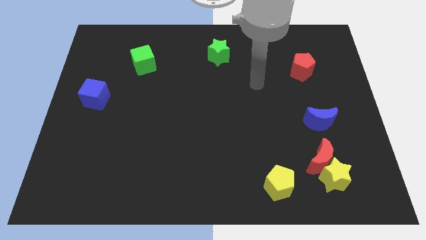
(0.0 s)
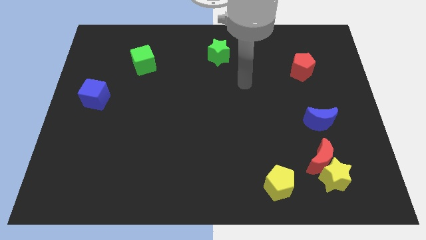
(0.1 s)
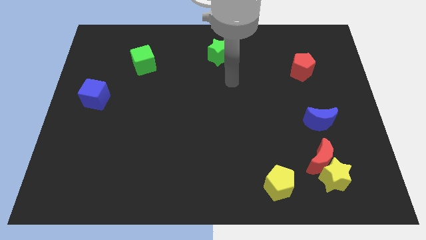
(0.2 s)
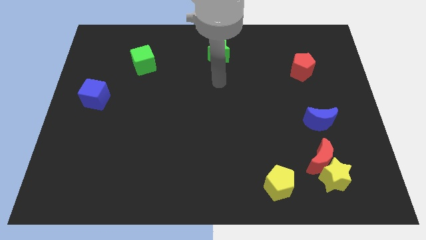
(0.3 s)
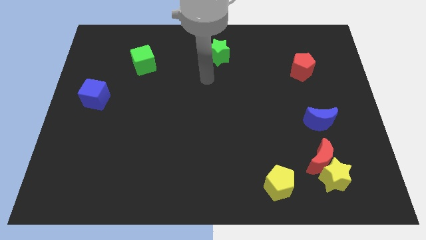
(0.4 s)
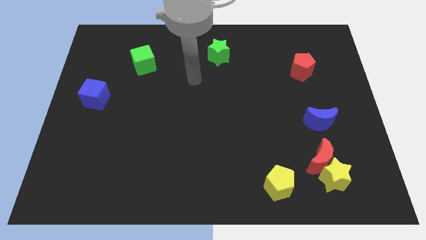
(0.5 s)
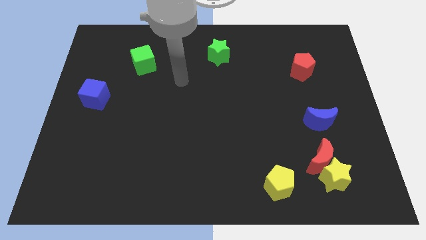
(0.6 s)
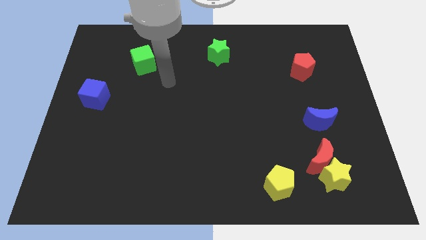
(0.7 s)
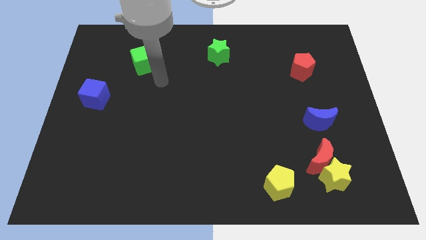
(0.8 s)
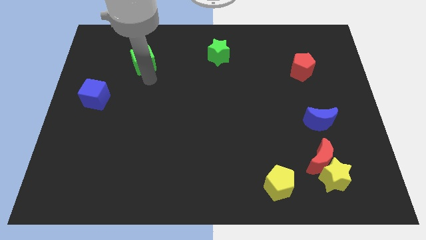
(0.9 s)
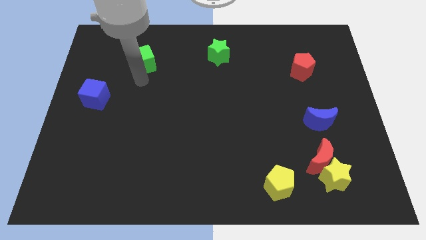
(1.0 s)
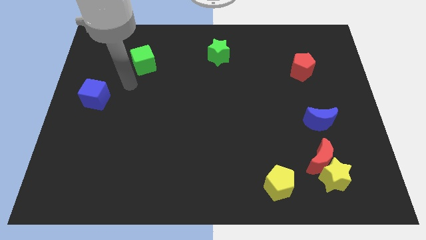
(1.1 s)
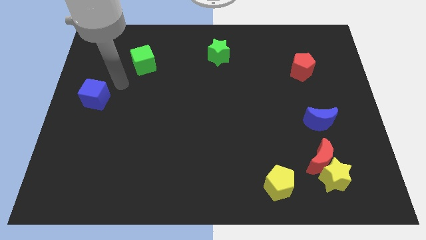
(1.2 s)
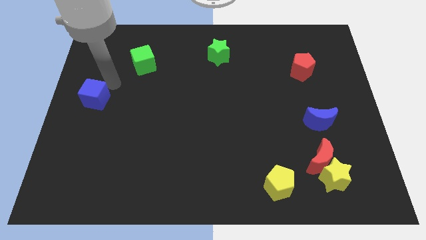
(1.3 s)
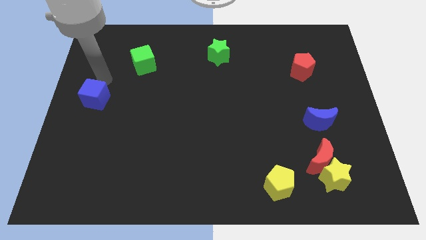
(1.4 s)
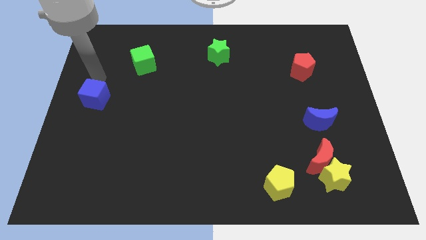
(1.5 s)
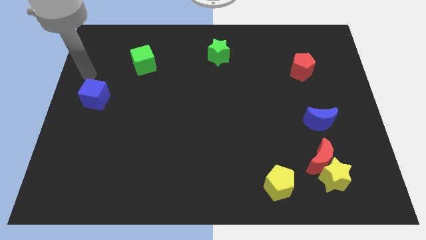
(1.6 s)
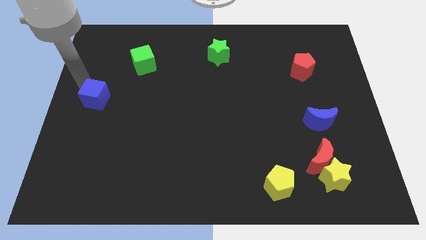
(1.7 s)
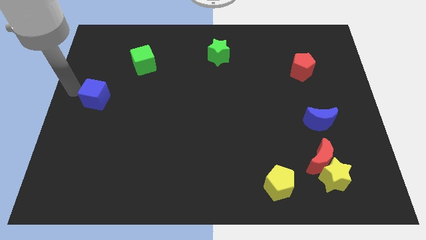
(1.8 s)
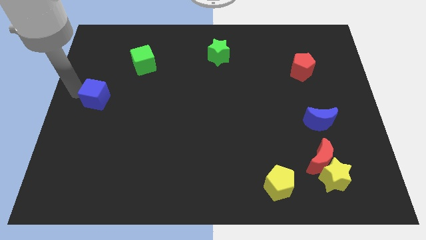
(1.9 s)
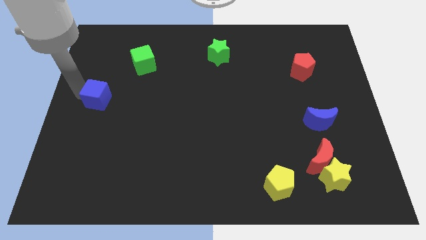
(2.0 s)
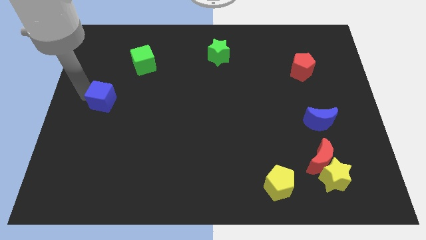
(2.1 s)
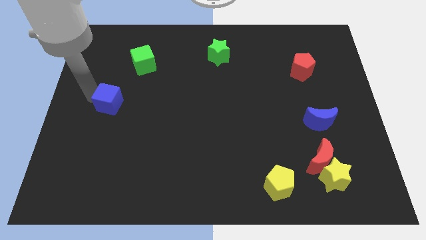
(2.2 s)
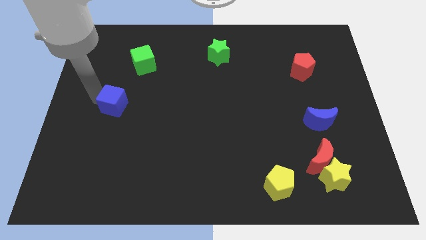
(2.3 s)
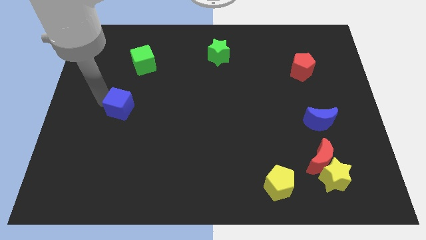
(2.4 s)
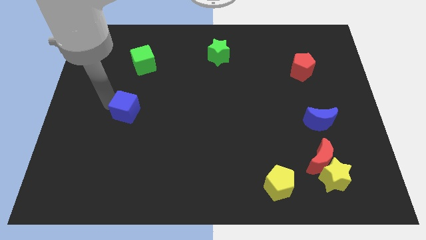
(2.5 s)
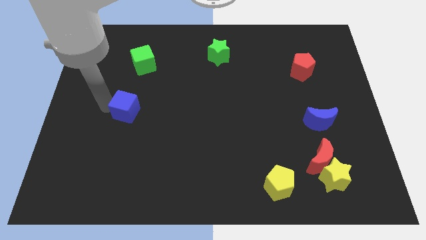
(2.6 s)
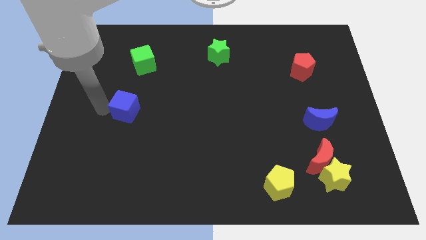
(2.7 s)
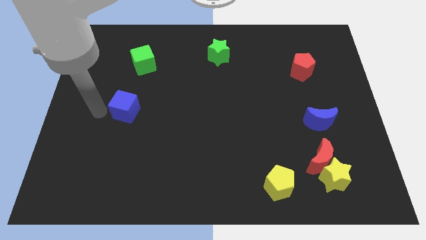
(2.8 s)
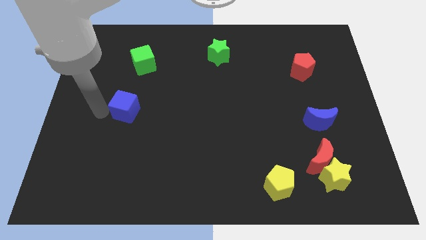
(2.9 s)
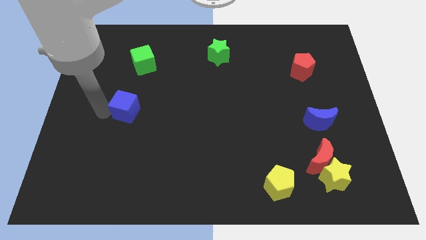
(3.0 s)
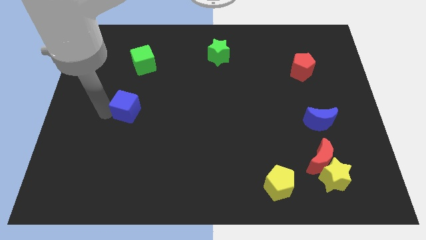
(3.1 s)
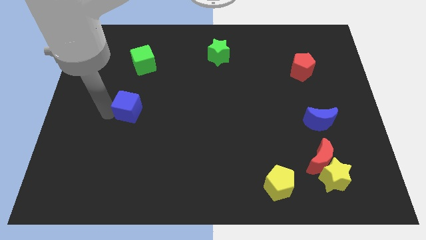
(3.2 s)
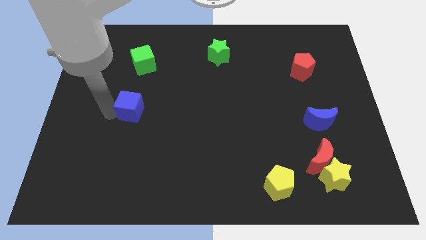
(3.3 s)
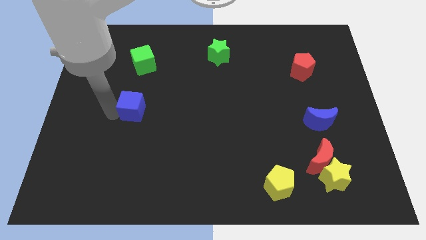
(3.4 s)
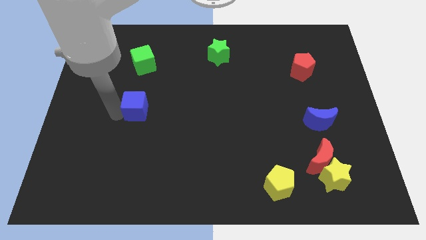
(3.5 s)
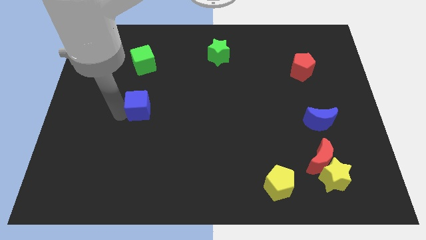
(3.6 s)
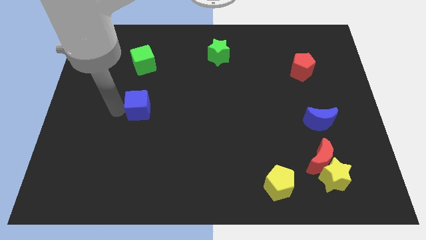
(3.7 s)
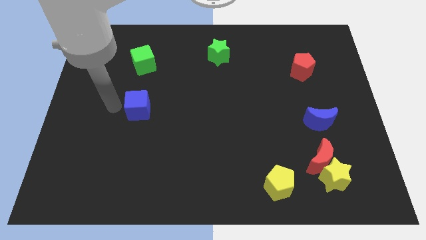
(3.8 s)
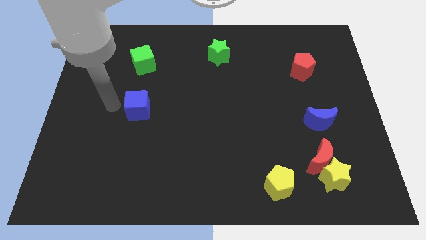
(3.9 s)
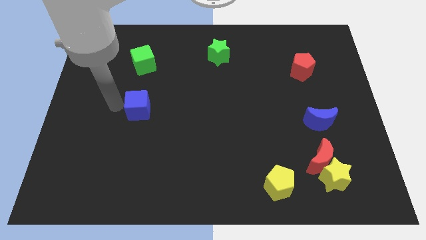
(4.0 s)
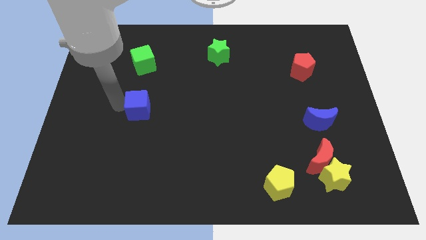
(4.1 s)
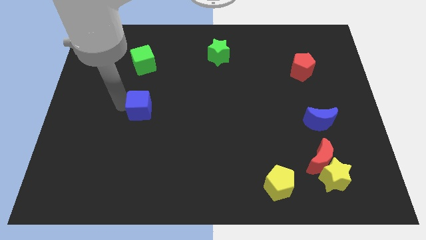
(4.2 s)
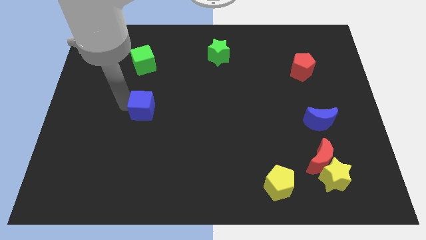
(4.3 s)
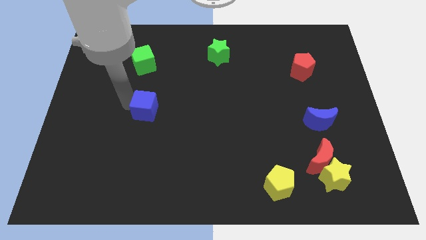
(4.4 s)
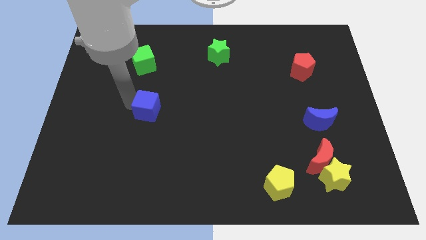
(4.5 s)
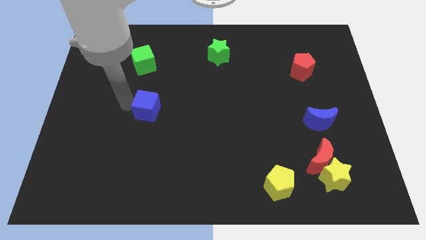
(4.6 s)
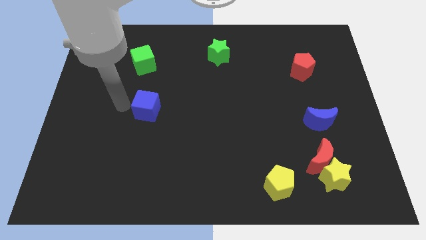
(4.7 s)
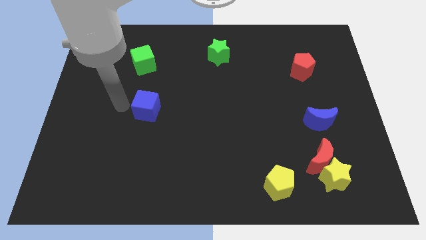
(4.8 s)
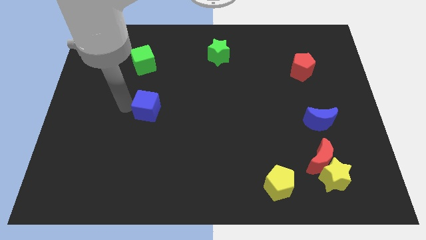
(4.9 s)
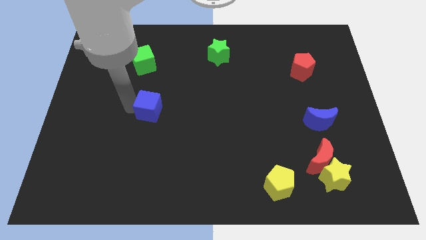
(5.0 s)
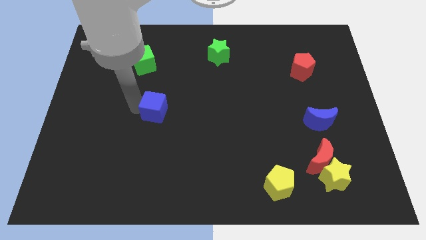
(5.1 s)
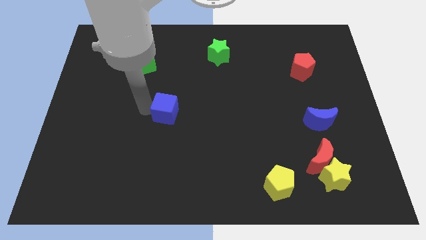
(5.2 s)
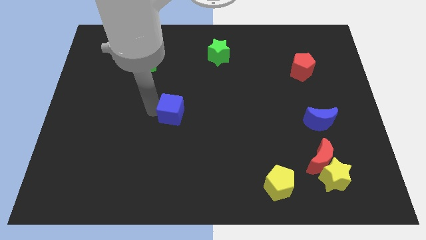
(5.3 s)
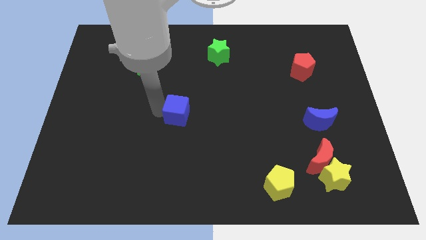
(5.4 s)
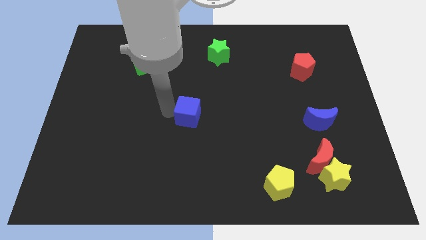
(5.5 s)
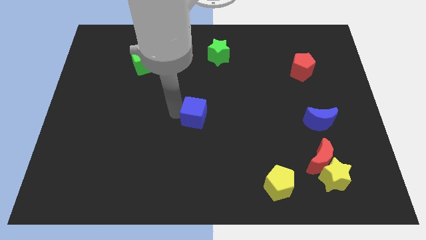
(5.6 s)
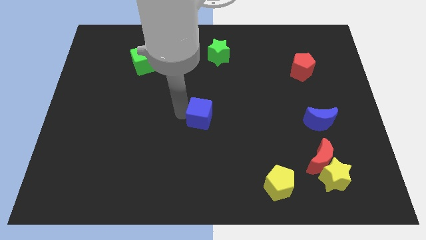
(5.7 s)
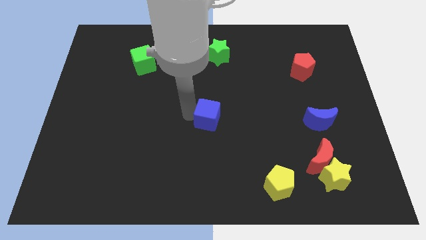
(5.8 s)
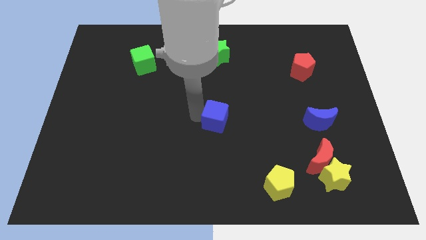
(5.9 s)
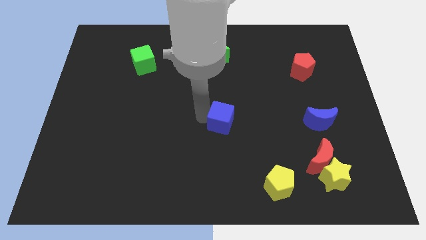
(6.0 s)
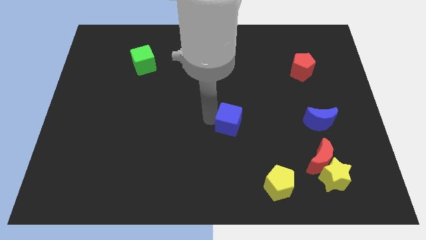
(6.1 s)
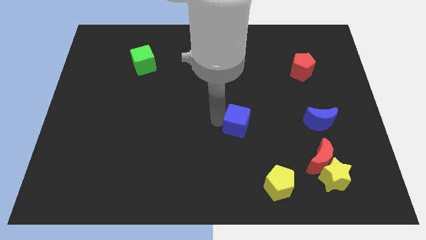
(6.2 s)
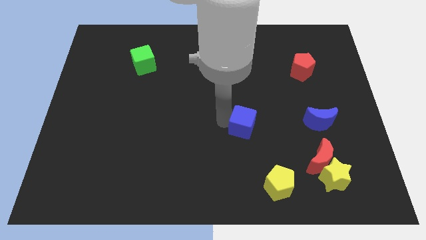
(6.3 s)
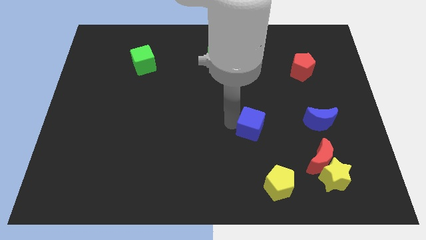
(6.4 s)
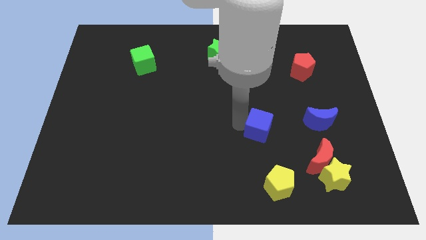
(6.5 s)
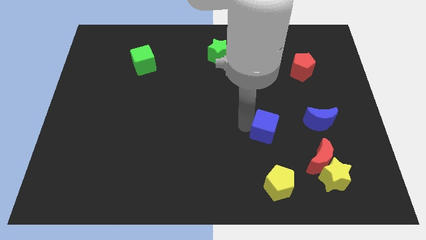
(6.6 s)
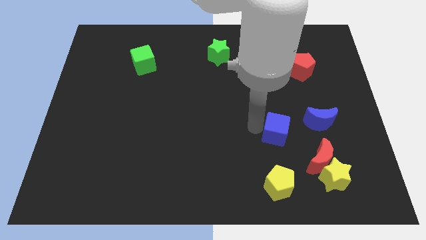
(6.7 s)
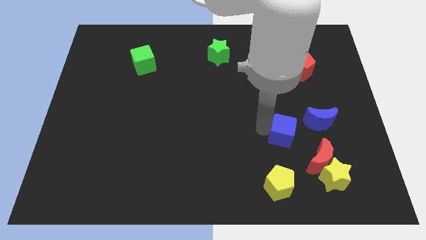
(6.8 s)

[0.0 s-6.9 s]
slide the blue cube to the bottom left side of the blue moon

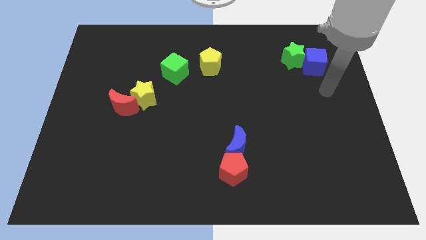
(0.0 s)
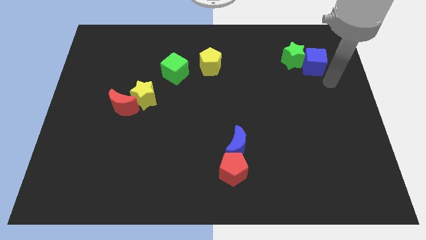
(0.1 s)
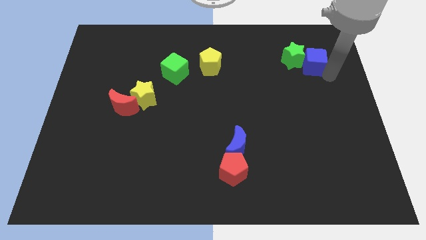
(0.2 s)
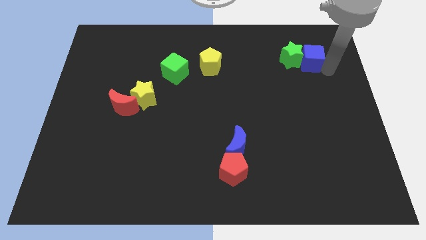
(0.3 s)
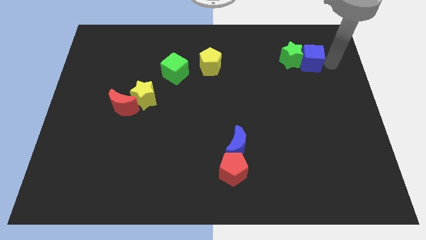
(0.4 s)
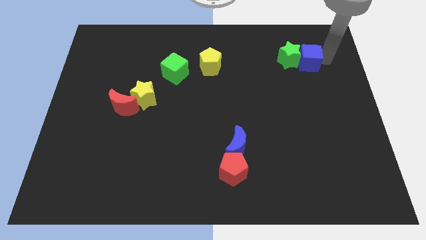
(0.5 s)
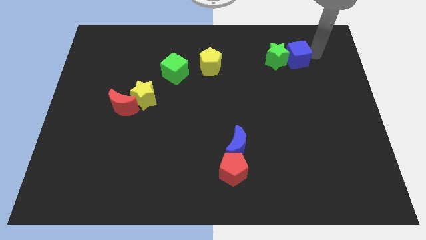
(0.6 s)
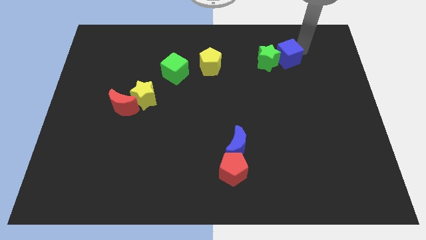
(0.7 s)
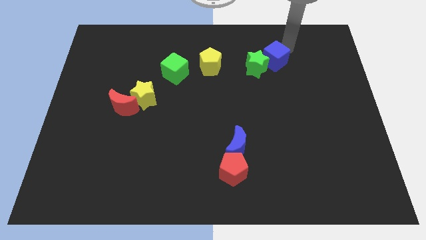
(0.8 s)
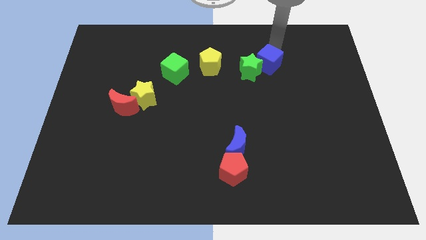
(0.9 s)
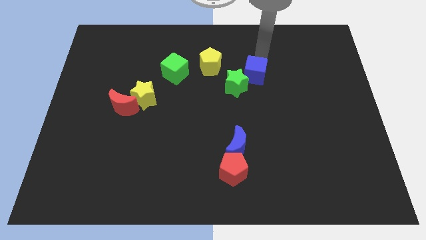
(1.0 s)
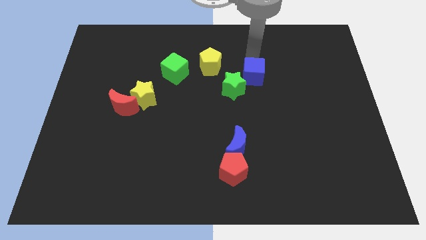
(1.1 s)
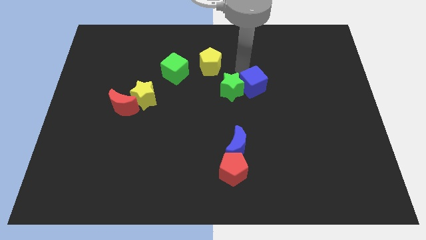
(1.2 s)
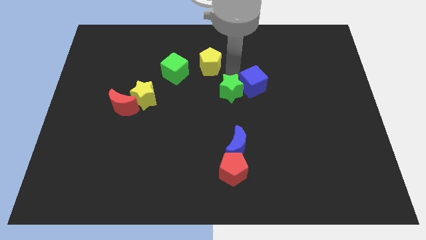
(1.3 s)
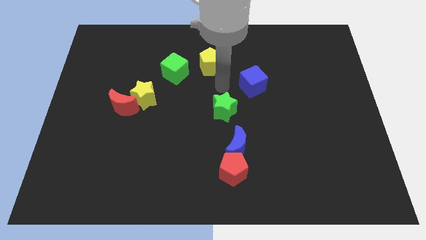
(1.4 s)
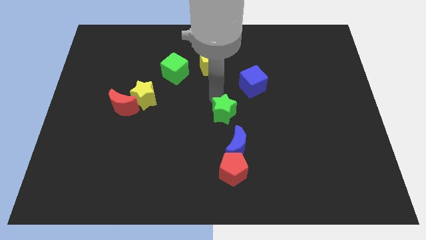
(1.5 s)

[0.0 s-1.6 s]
move the green star to the top left side of the blue moon
